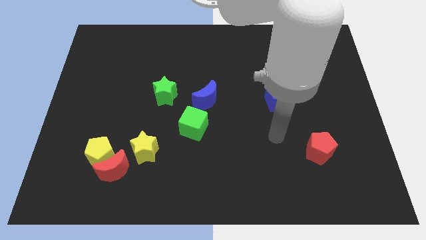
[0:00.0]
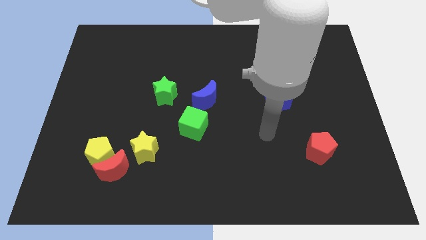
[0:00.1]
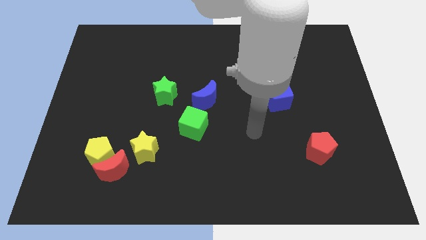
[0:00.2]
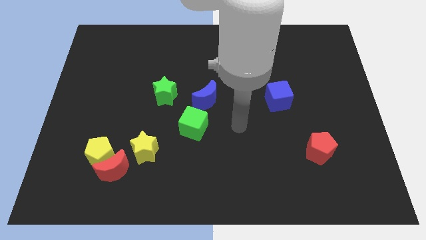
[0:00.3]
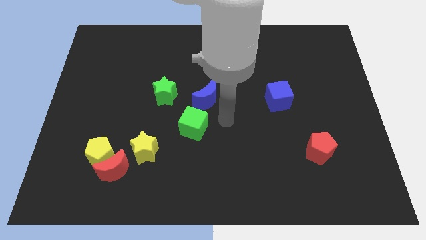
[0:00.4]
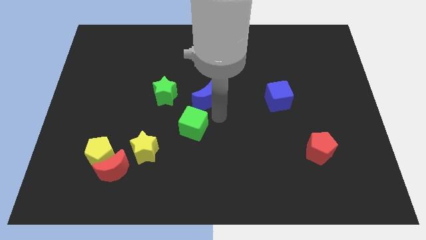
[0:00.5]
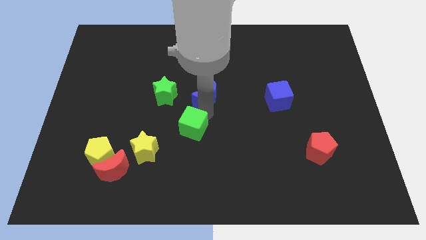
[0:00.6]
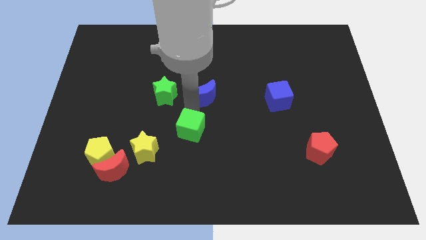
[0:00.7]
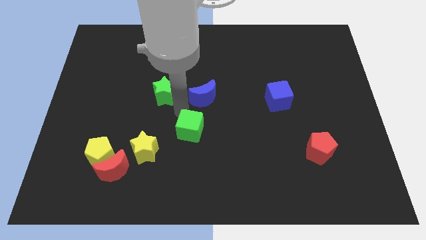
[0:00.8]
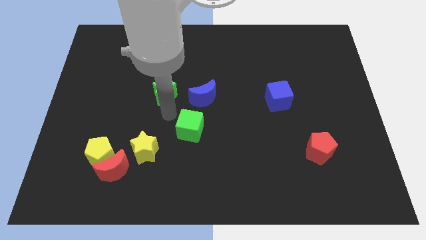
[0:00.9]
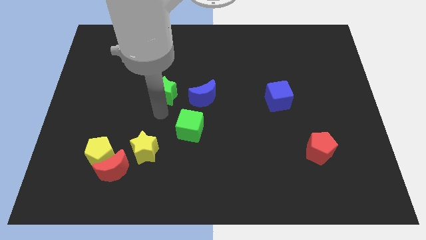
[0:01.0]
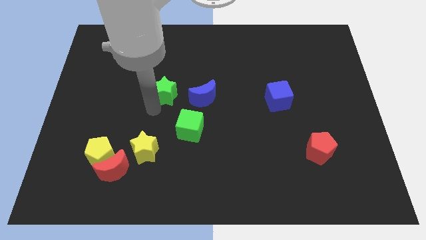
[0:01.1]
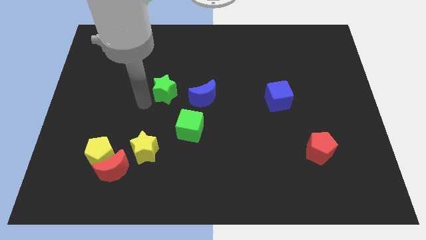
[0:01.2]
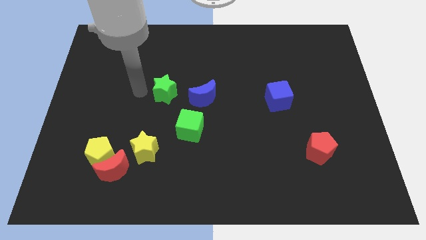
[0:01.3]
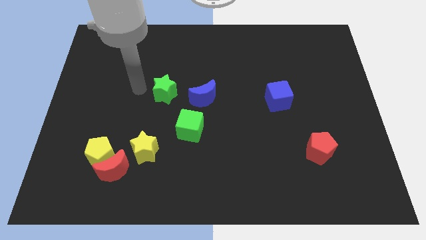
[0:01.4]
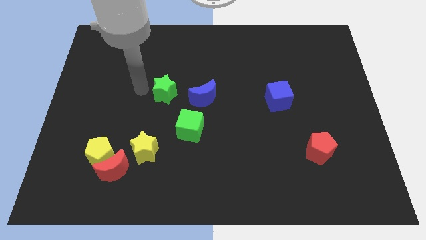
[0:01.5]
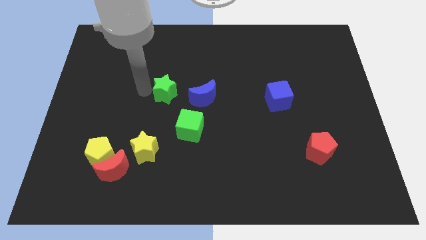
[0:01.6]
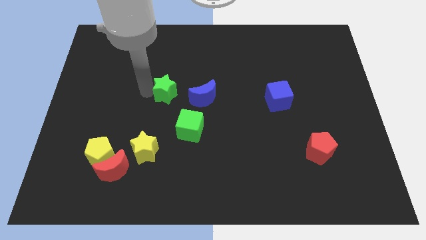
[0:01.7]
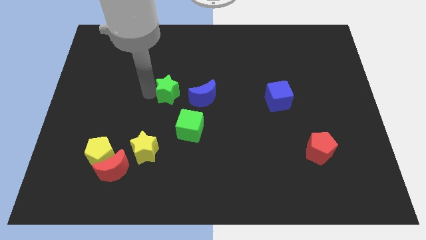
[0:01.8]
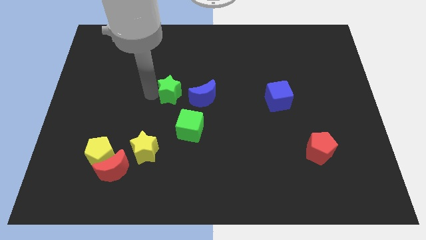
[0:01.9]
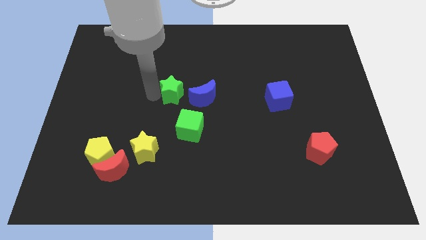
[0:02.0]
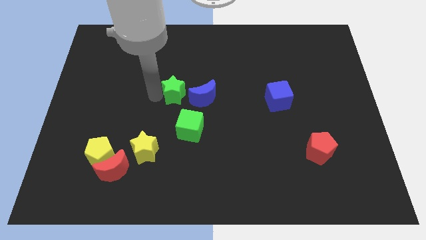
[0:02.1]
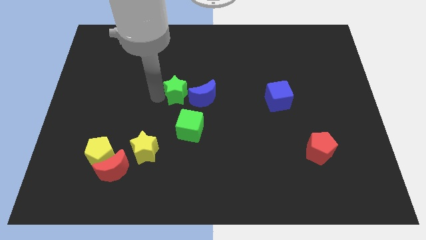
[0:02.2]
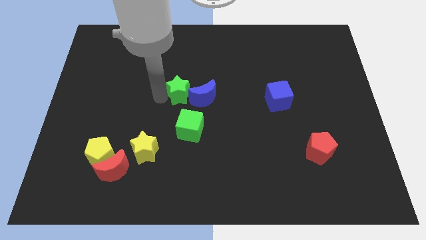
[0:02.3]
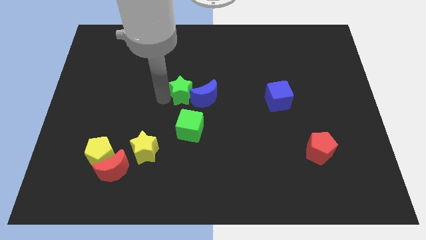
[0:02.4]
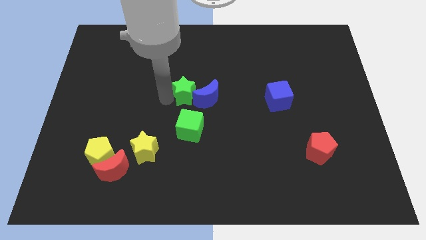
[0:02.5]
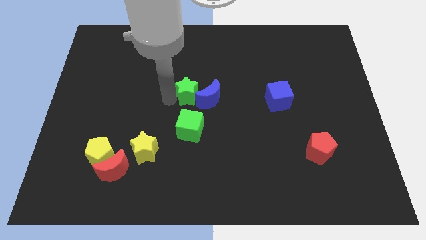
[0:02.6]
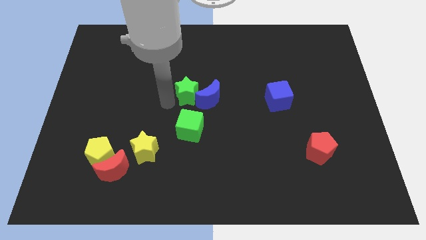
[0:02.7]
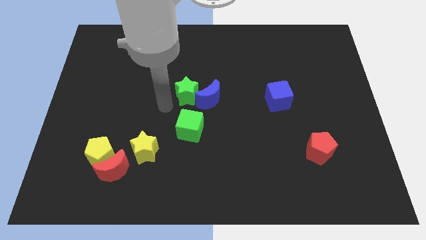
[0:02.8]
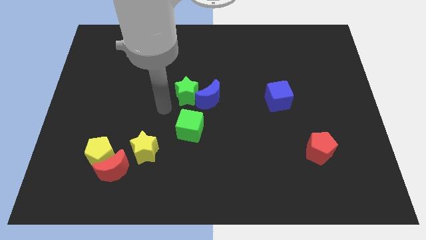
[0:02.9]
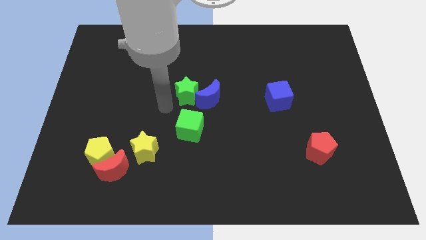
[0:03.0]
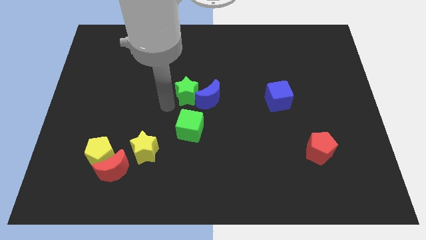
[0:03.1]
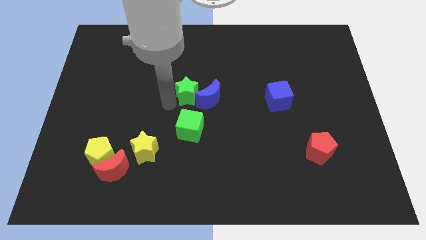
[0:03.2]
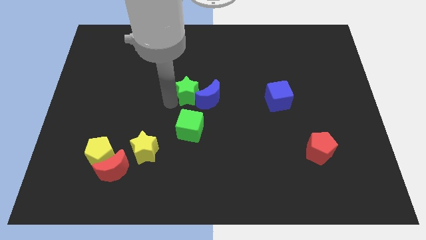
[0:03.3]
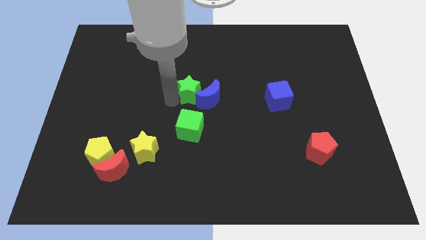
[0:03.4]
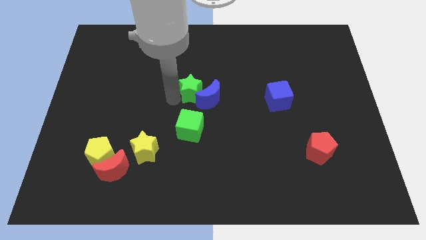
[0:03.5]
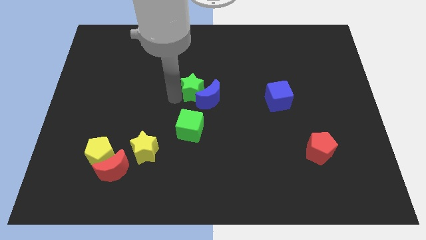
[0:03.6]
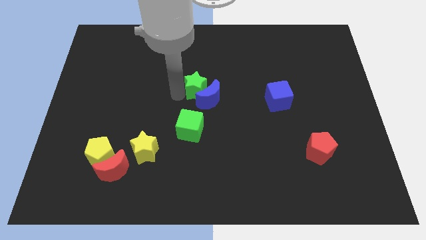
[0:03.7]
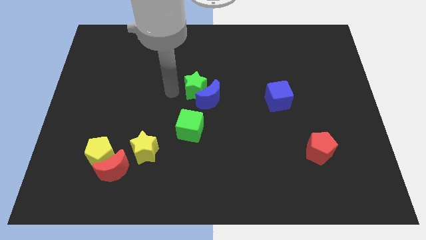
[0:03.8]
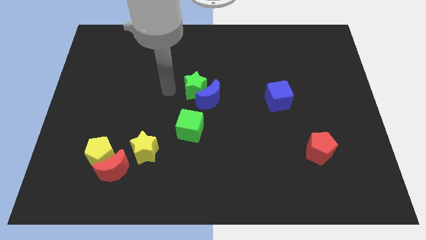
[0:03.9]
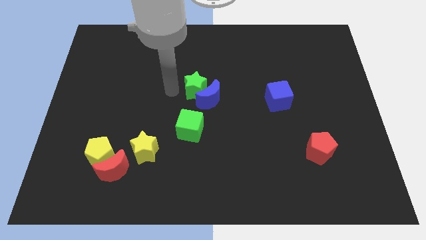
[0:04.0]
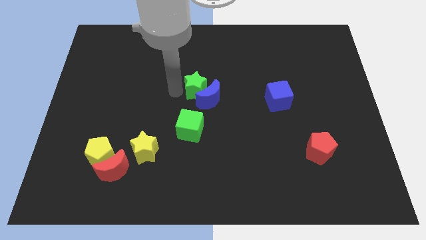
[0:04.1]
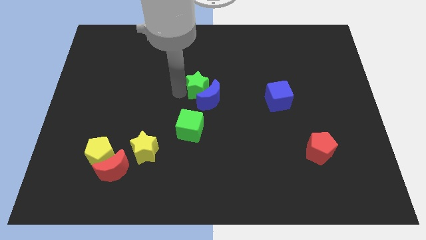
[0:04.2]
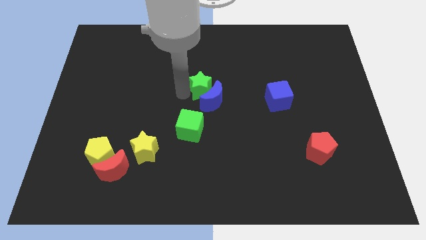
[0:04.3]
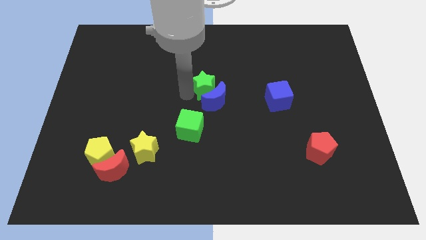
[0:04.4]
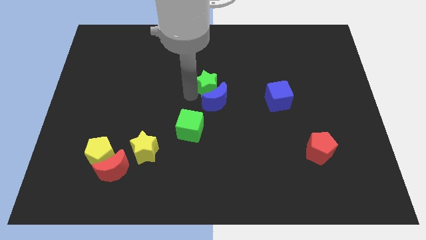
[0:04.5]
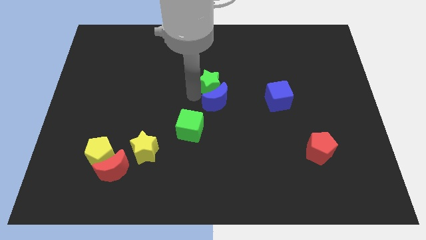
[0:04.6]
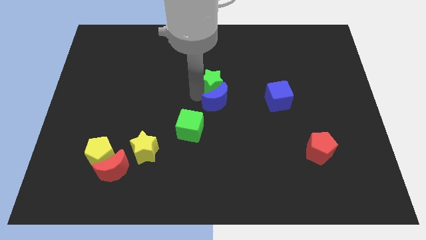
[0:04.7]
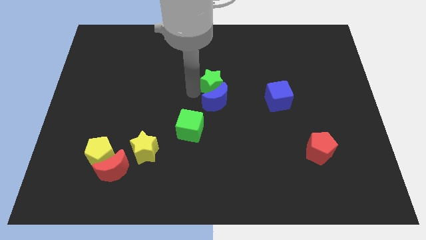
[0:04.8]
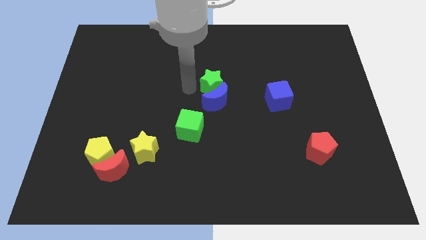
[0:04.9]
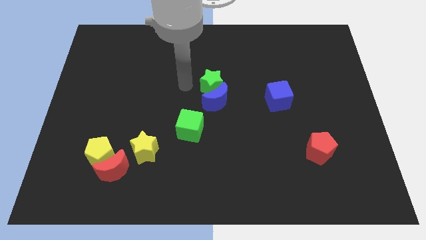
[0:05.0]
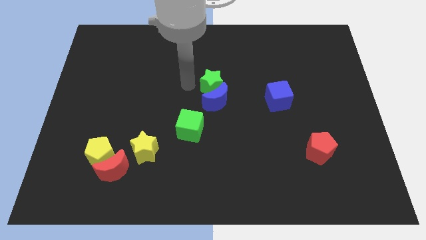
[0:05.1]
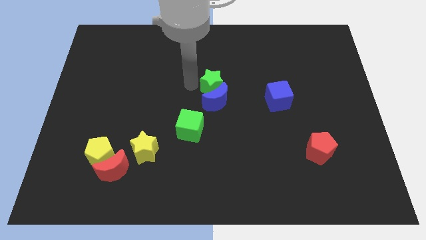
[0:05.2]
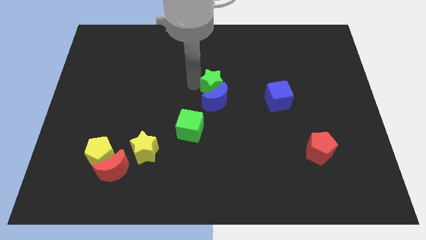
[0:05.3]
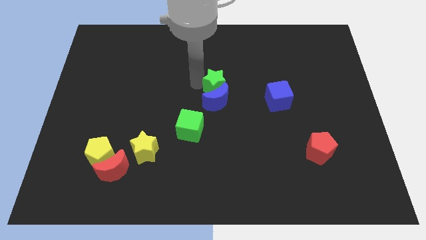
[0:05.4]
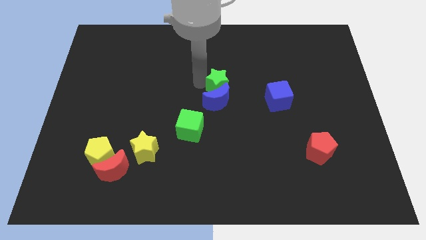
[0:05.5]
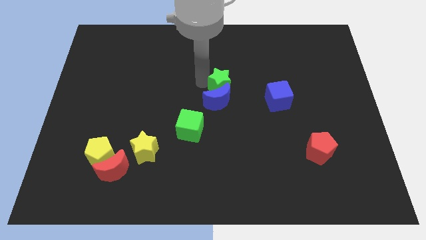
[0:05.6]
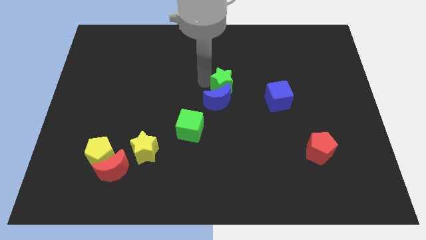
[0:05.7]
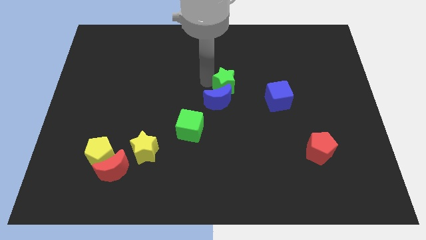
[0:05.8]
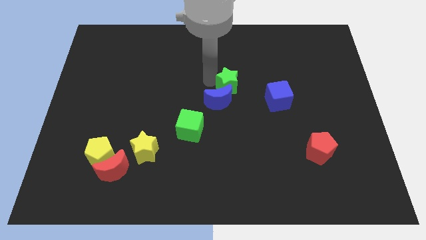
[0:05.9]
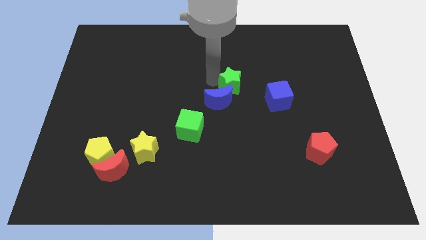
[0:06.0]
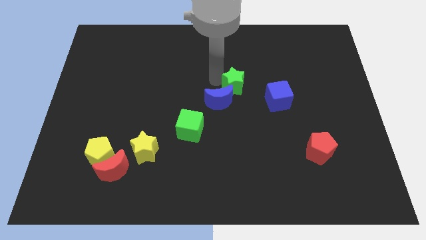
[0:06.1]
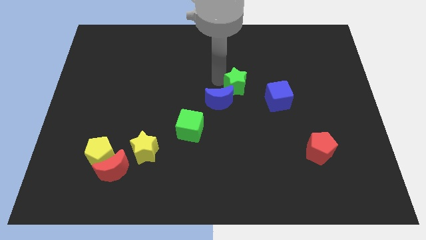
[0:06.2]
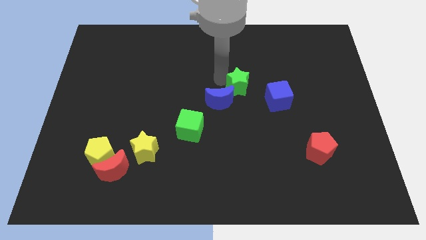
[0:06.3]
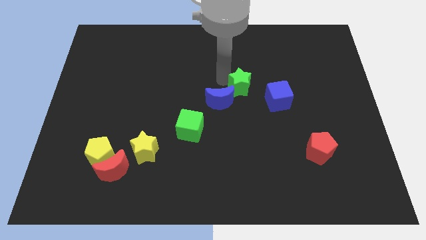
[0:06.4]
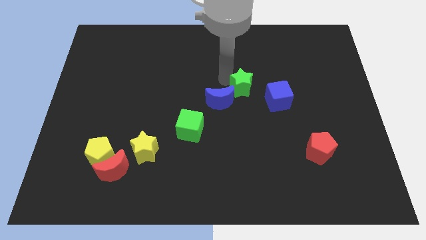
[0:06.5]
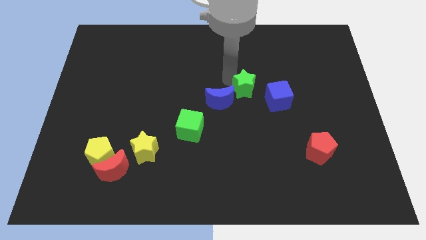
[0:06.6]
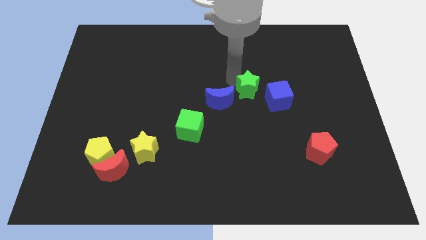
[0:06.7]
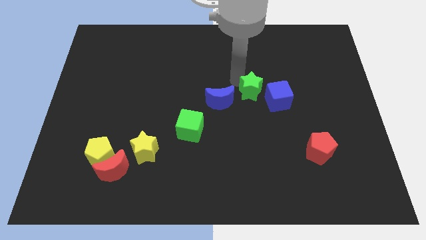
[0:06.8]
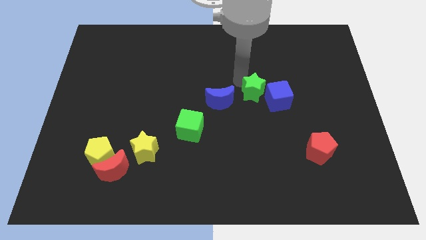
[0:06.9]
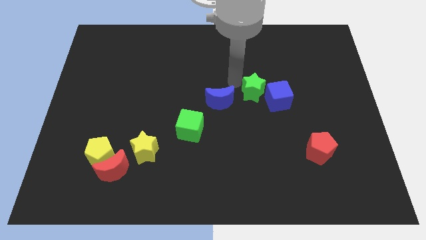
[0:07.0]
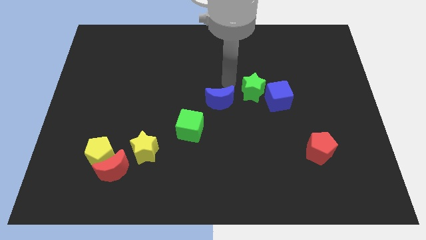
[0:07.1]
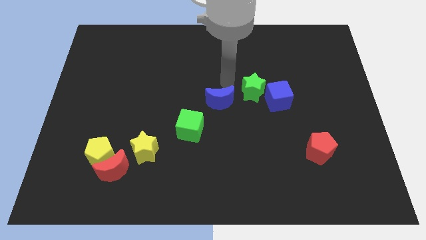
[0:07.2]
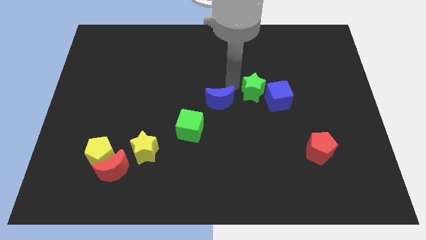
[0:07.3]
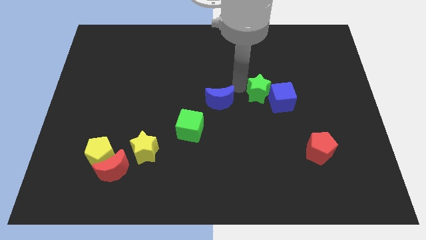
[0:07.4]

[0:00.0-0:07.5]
move the green star close to the blue cube
